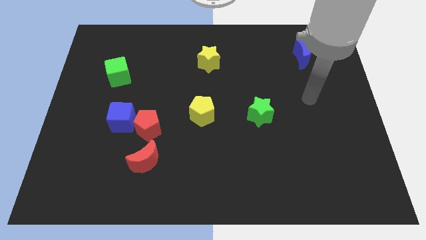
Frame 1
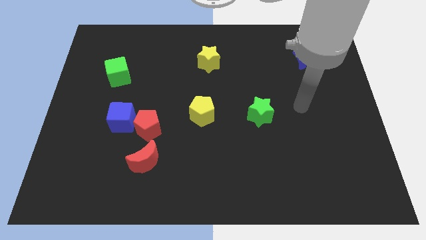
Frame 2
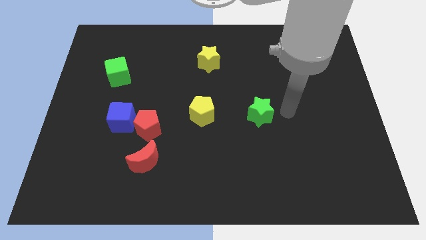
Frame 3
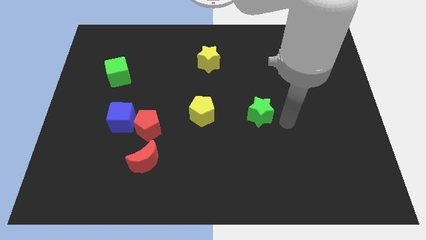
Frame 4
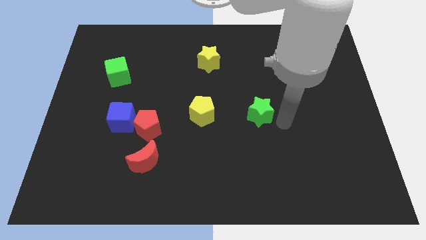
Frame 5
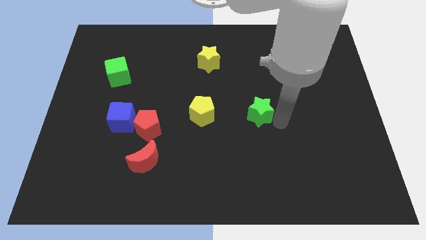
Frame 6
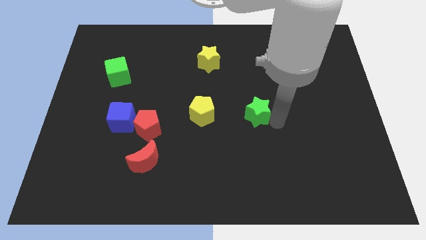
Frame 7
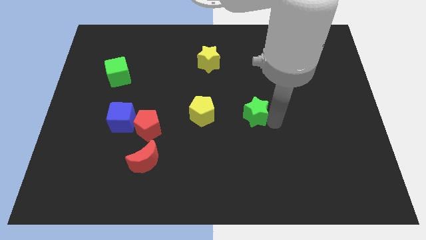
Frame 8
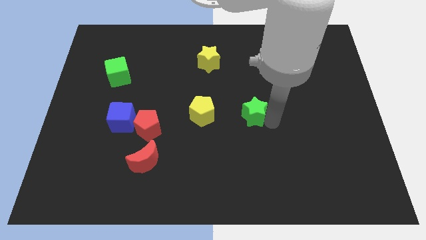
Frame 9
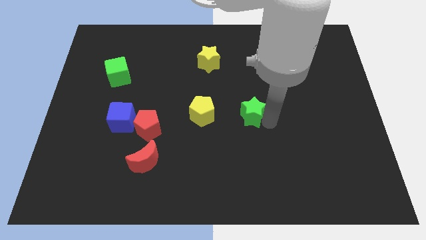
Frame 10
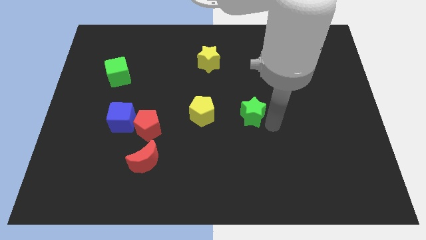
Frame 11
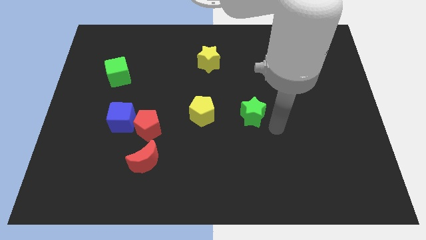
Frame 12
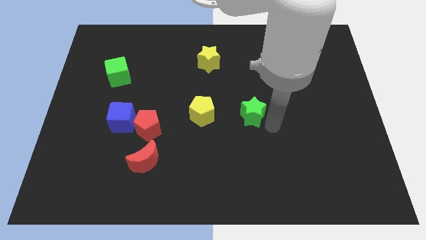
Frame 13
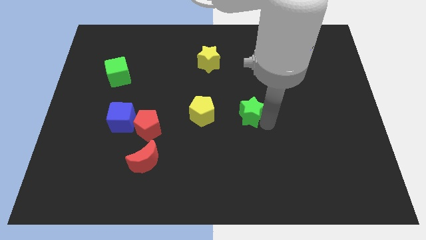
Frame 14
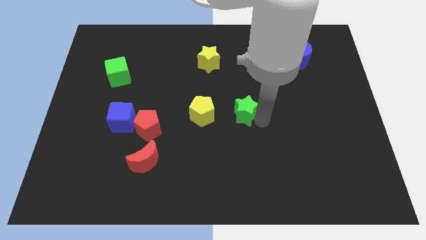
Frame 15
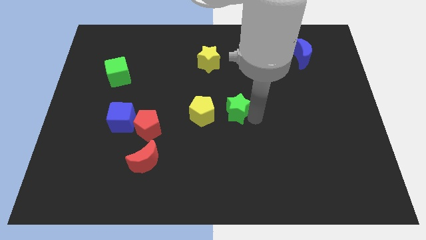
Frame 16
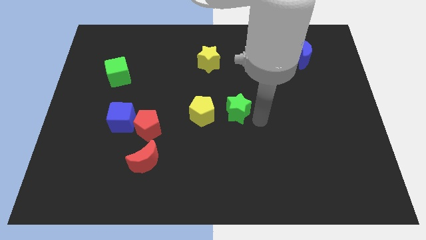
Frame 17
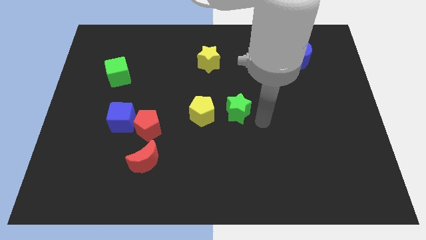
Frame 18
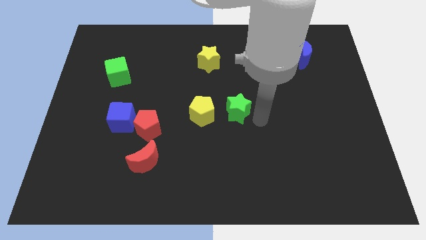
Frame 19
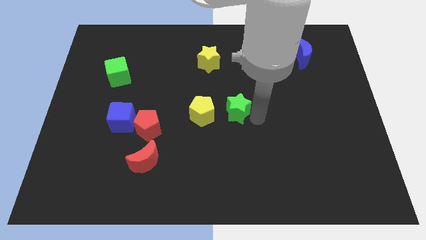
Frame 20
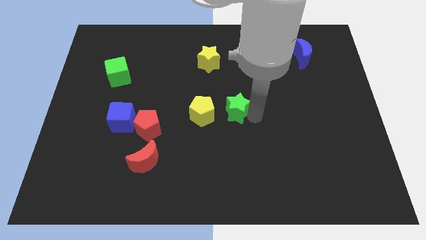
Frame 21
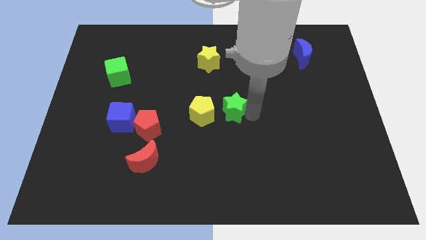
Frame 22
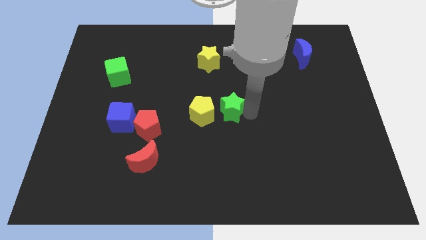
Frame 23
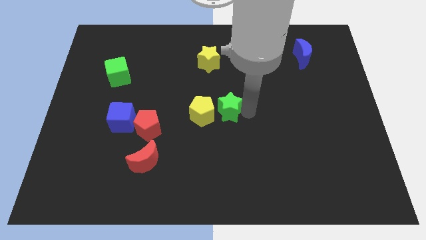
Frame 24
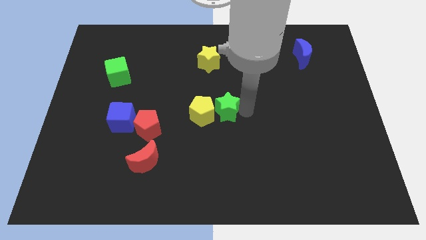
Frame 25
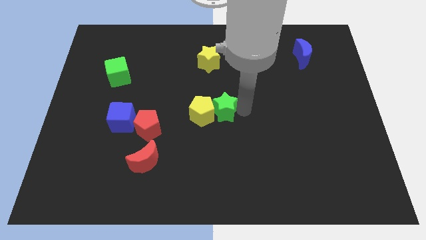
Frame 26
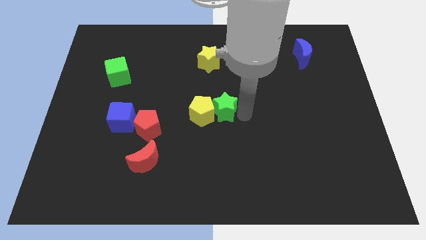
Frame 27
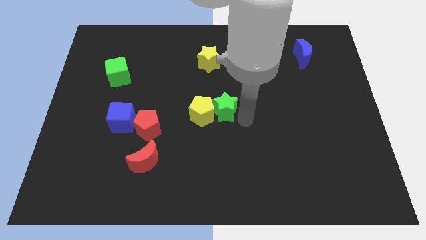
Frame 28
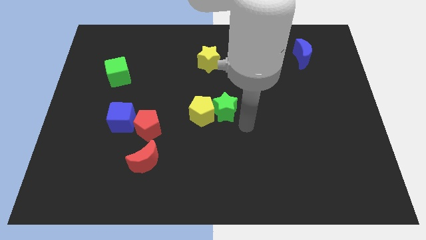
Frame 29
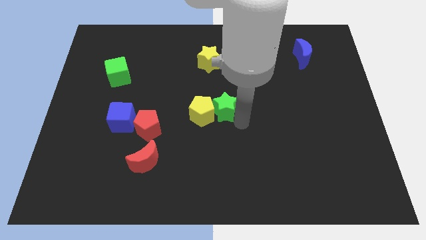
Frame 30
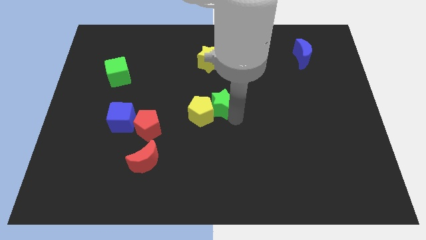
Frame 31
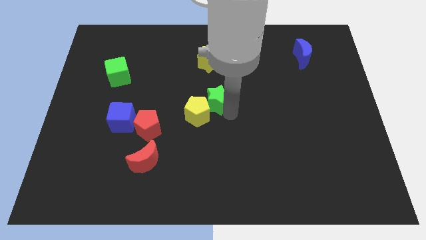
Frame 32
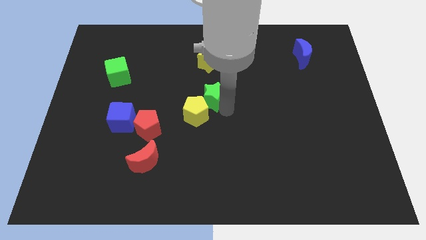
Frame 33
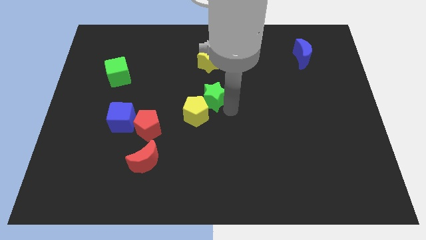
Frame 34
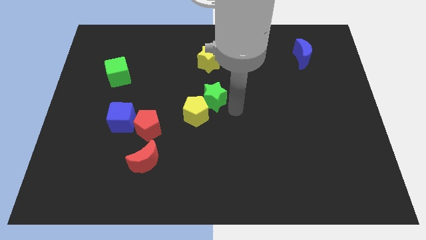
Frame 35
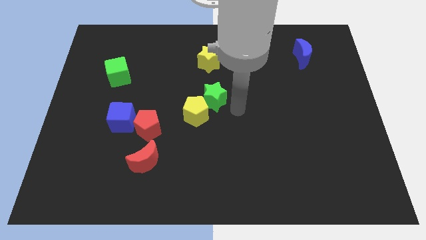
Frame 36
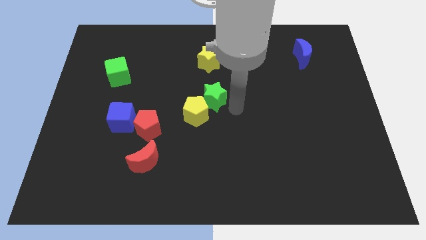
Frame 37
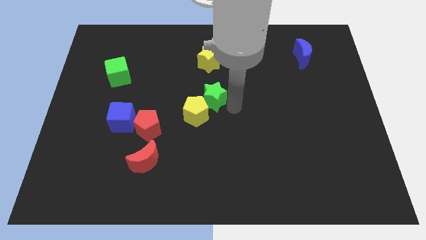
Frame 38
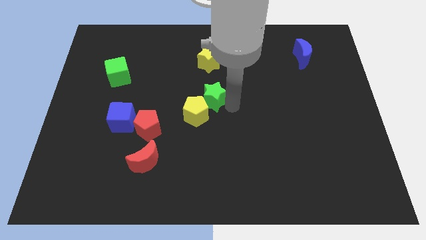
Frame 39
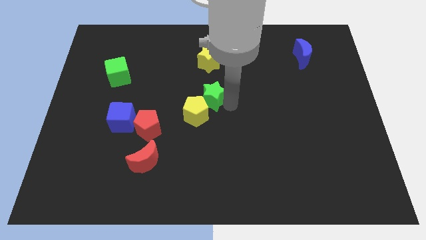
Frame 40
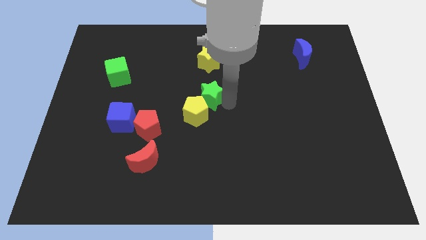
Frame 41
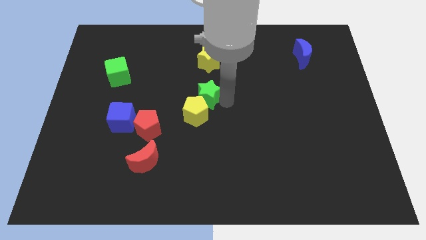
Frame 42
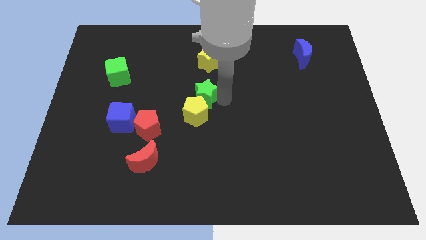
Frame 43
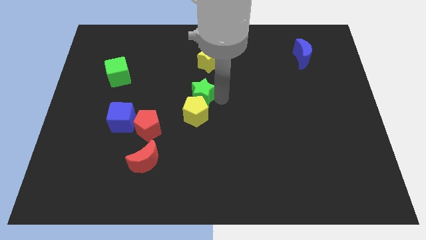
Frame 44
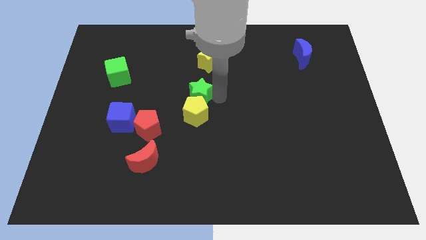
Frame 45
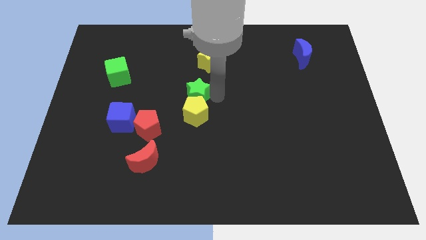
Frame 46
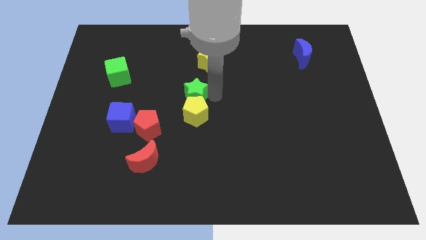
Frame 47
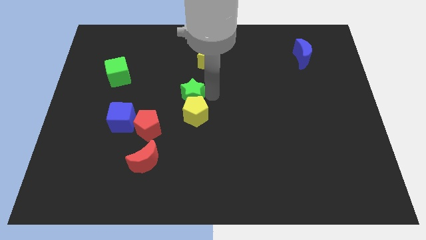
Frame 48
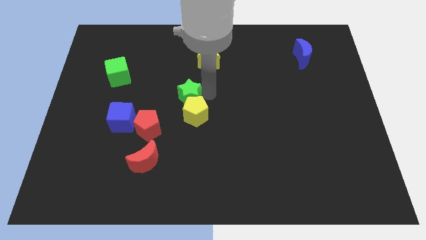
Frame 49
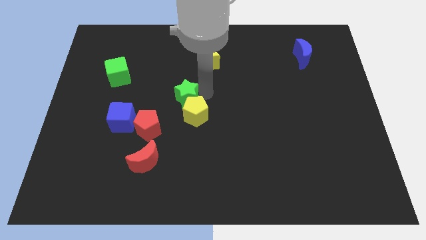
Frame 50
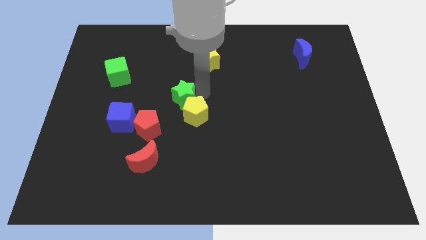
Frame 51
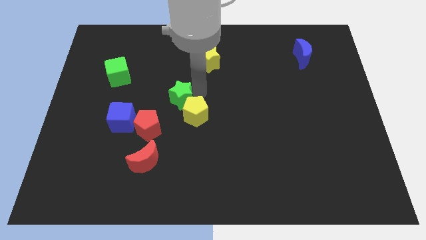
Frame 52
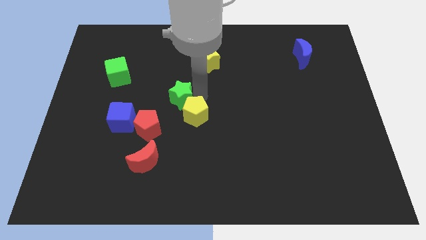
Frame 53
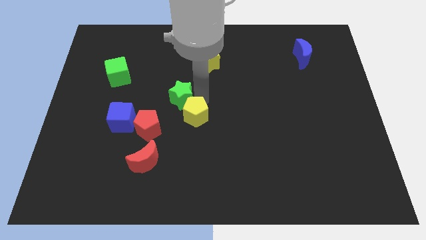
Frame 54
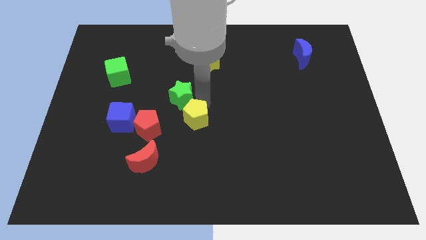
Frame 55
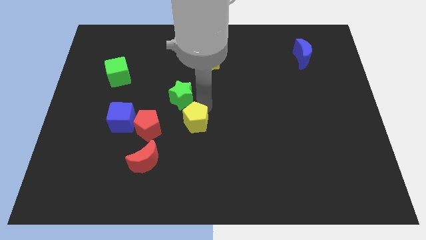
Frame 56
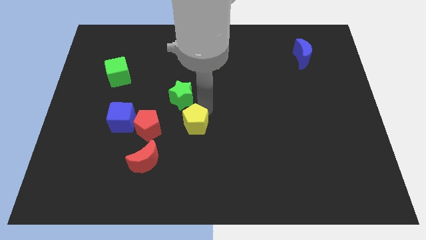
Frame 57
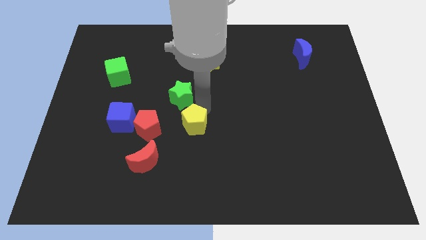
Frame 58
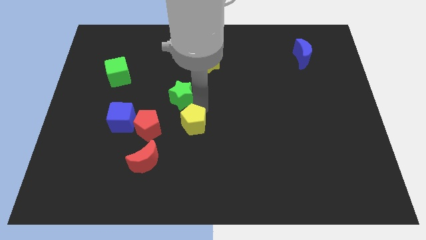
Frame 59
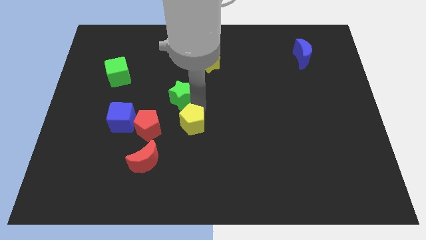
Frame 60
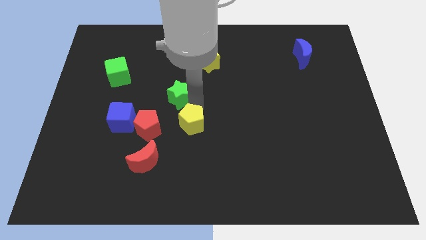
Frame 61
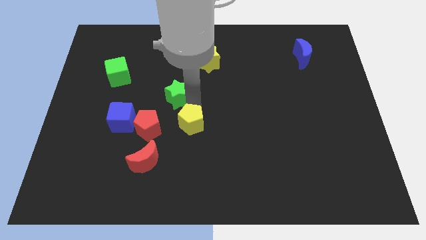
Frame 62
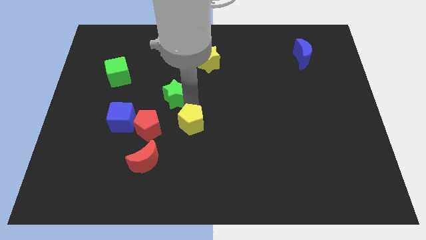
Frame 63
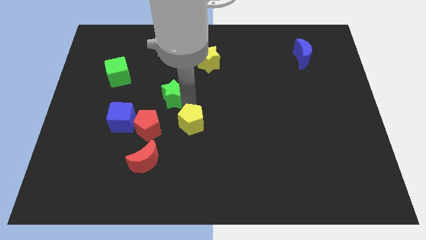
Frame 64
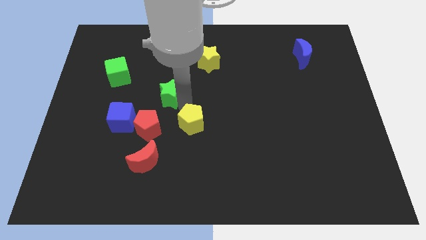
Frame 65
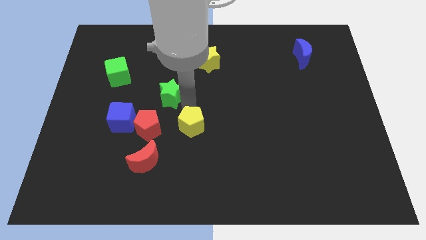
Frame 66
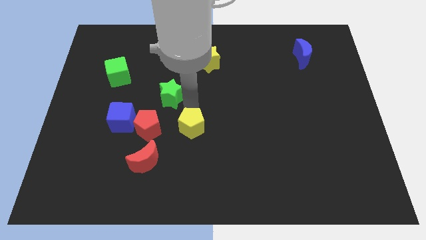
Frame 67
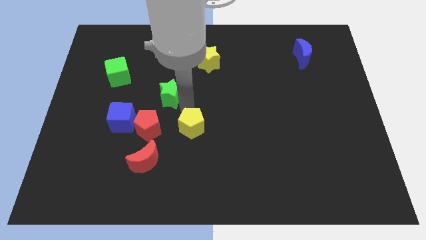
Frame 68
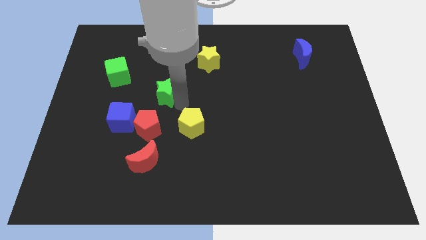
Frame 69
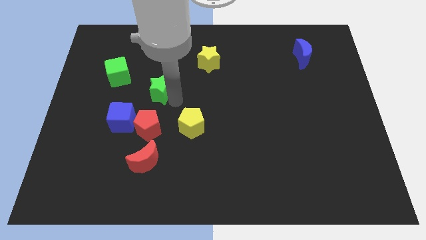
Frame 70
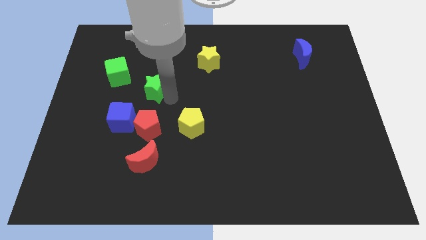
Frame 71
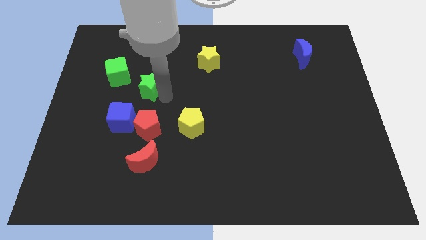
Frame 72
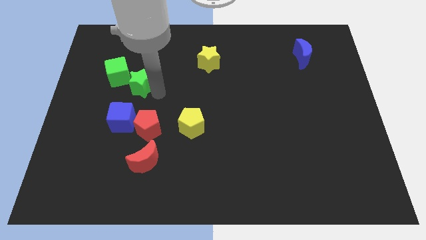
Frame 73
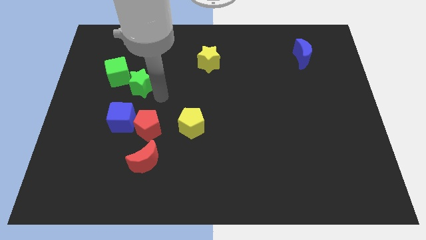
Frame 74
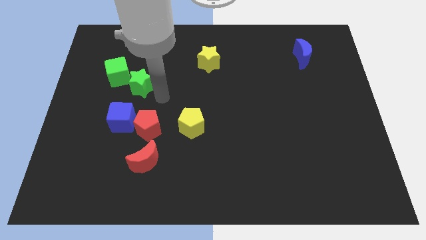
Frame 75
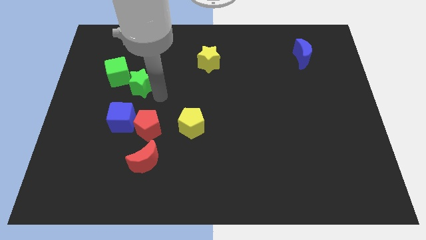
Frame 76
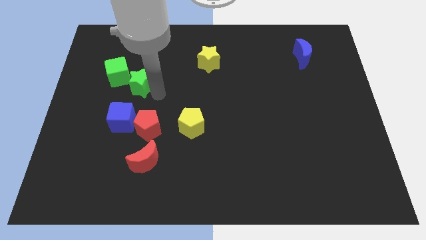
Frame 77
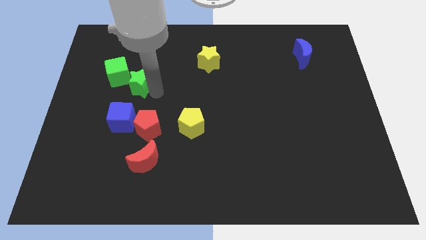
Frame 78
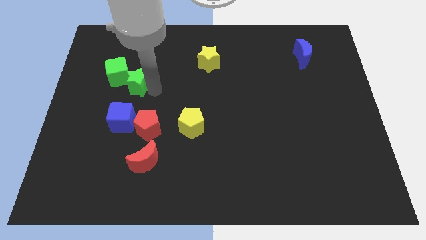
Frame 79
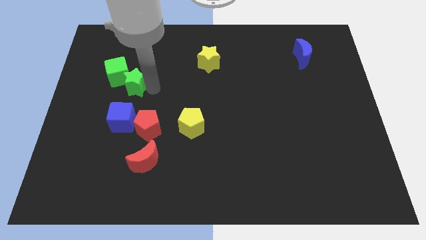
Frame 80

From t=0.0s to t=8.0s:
put the green star to the green cube
